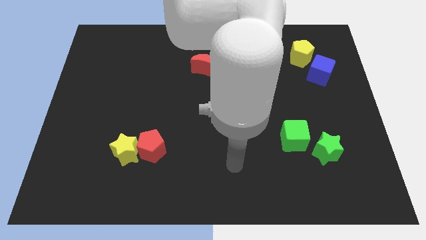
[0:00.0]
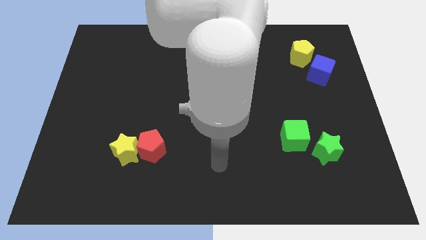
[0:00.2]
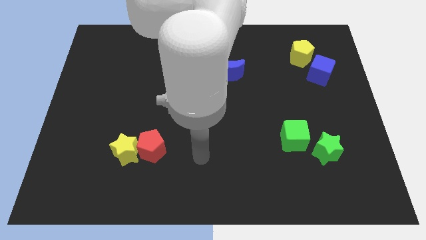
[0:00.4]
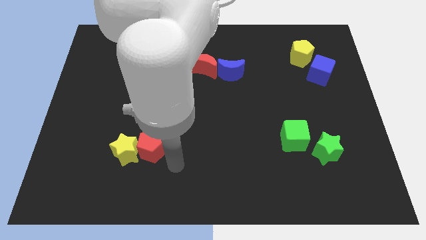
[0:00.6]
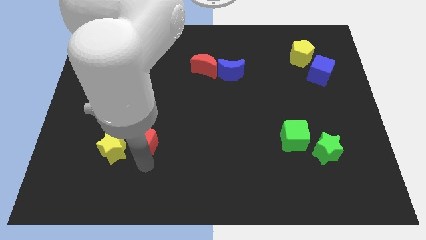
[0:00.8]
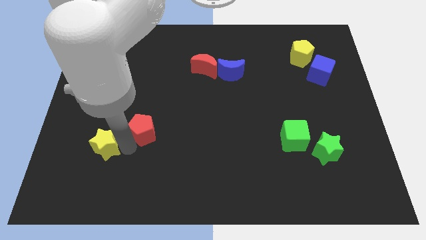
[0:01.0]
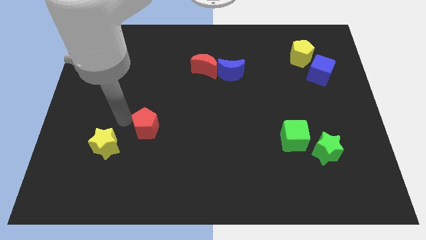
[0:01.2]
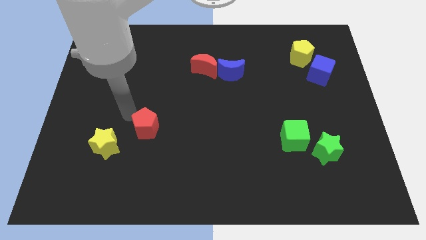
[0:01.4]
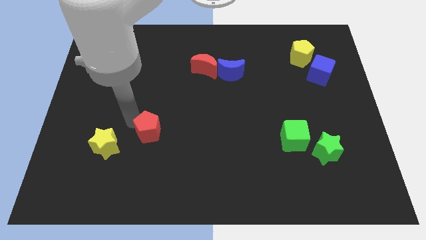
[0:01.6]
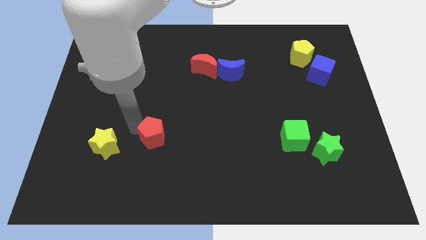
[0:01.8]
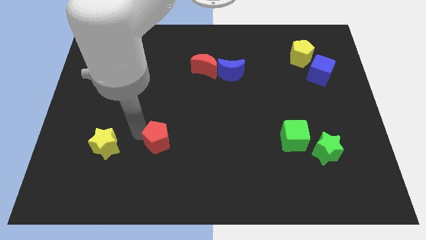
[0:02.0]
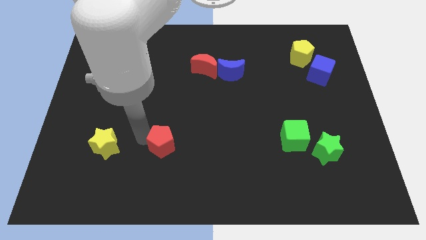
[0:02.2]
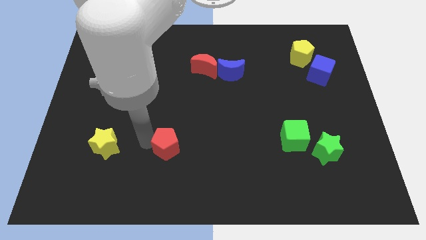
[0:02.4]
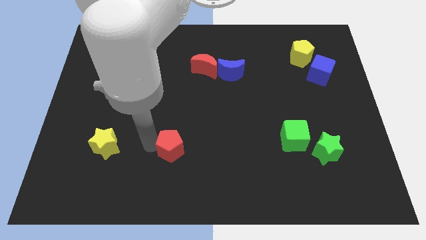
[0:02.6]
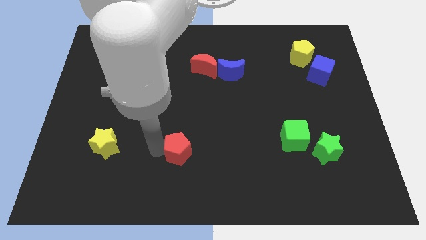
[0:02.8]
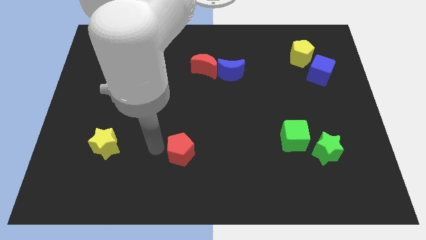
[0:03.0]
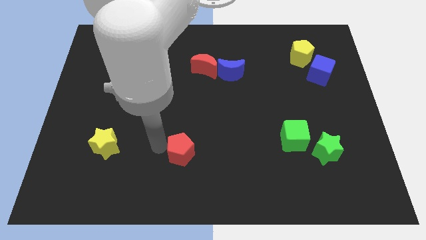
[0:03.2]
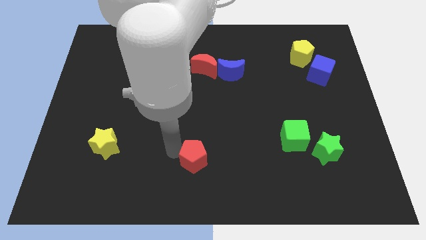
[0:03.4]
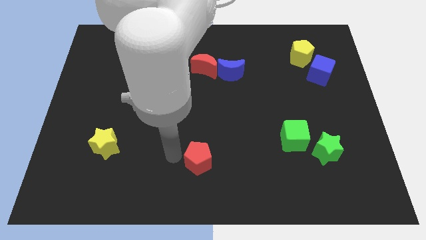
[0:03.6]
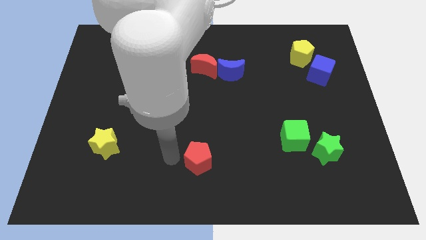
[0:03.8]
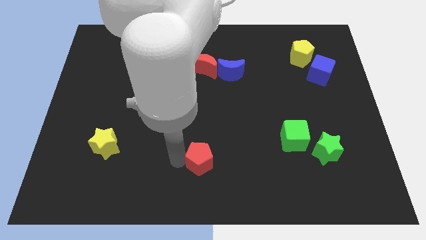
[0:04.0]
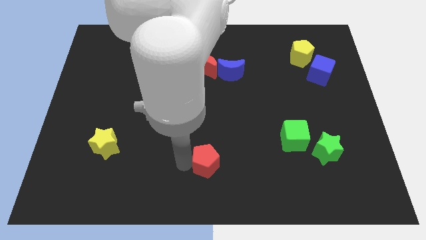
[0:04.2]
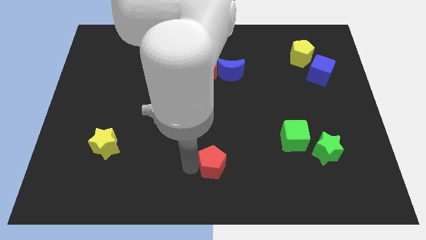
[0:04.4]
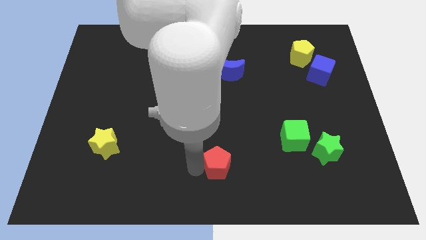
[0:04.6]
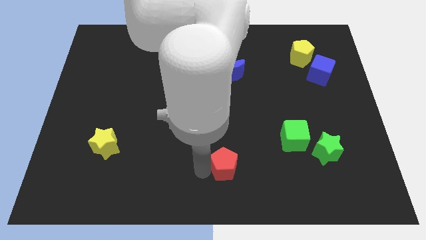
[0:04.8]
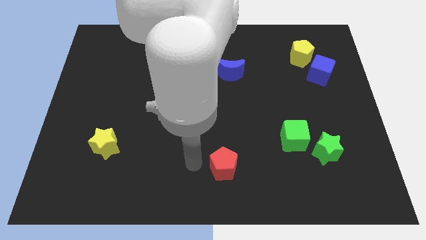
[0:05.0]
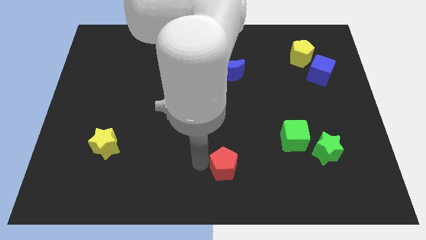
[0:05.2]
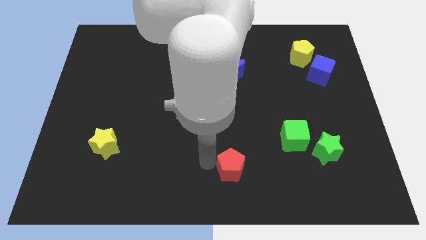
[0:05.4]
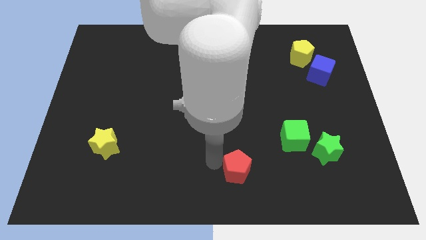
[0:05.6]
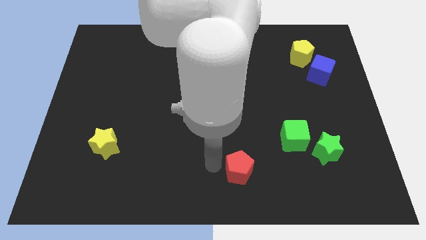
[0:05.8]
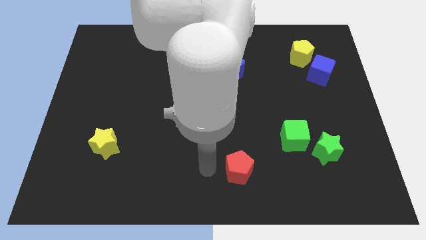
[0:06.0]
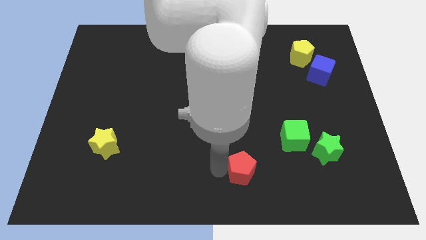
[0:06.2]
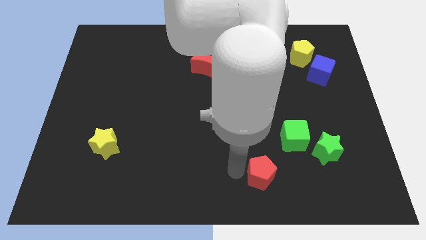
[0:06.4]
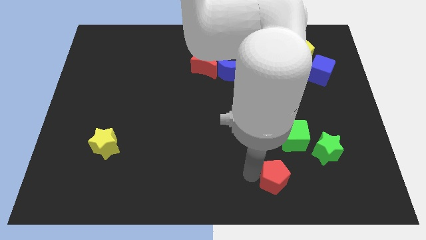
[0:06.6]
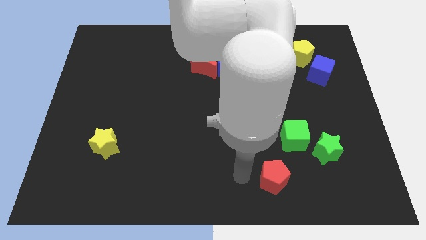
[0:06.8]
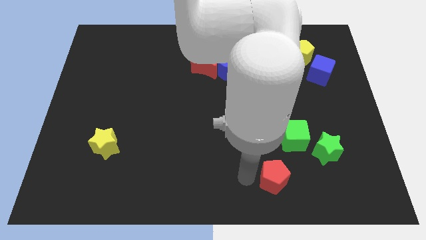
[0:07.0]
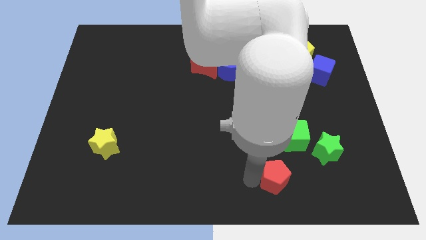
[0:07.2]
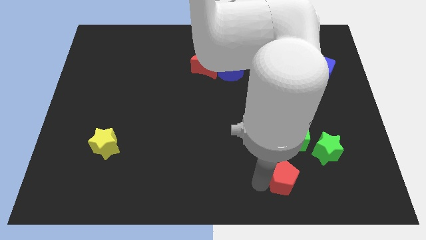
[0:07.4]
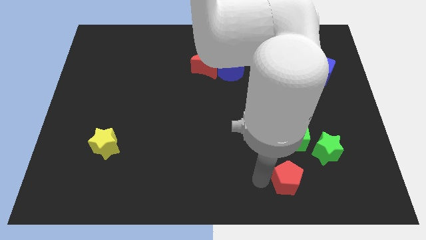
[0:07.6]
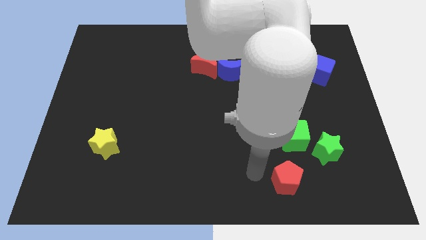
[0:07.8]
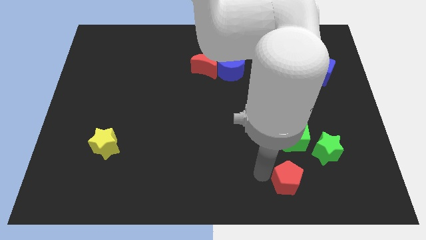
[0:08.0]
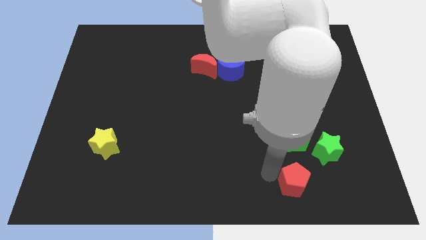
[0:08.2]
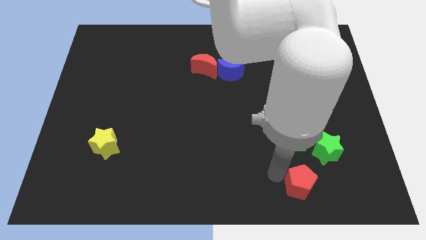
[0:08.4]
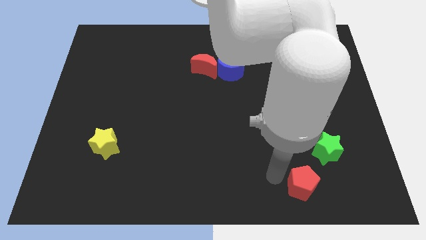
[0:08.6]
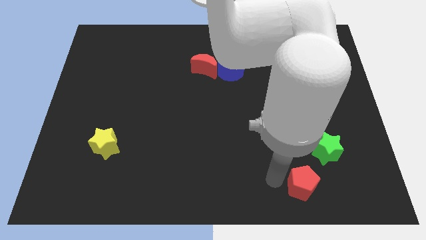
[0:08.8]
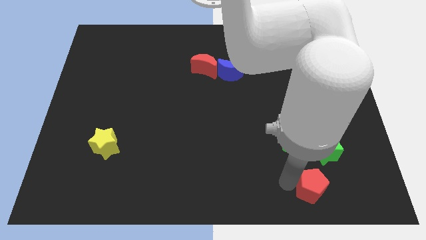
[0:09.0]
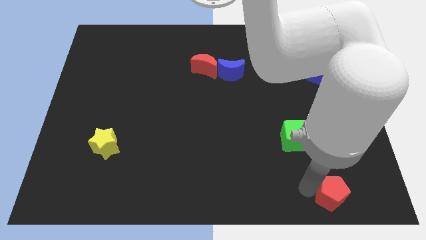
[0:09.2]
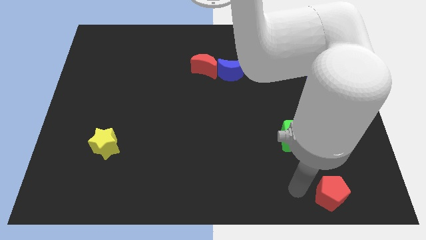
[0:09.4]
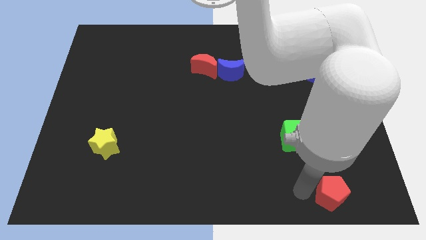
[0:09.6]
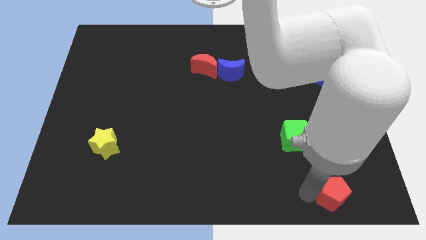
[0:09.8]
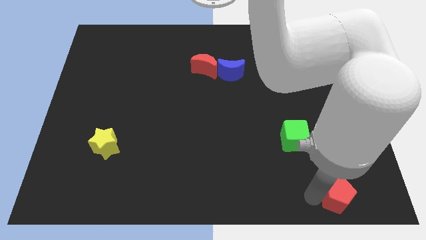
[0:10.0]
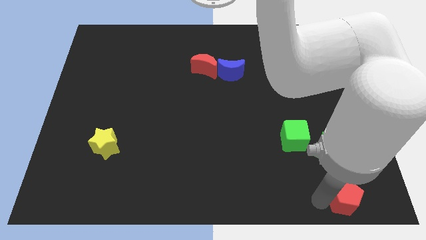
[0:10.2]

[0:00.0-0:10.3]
push the red pentagon to the bottom right

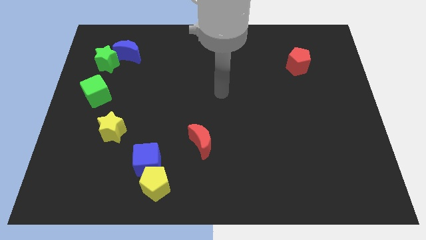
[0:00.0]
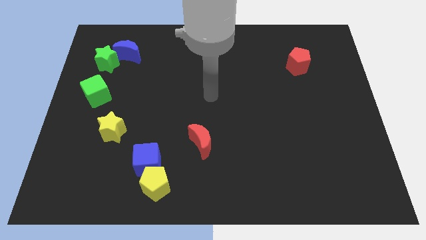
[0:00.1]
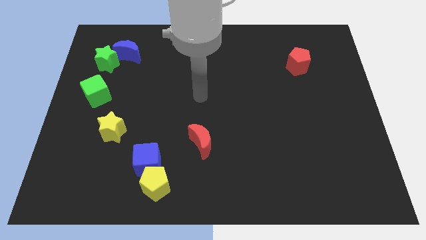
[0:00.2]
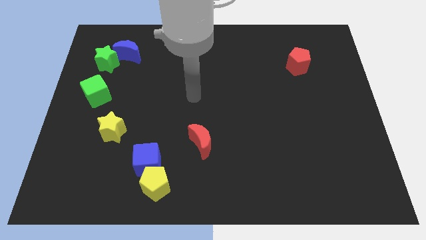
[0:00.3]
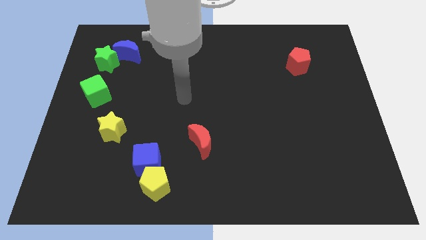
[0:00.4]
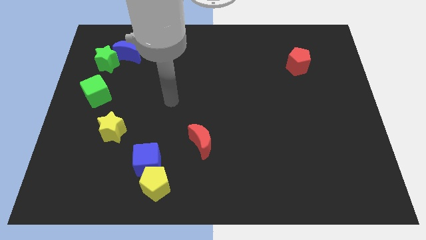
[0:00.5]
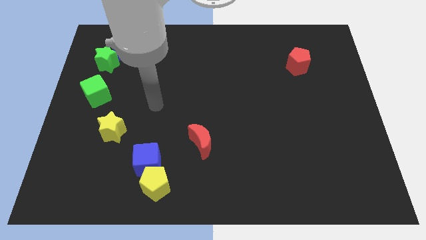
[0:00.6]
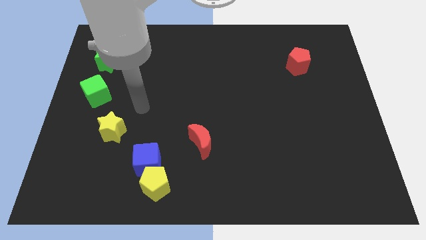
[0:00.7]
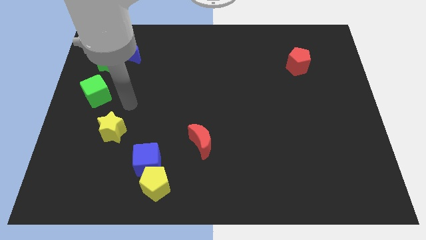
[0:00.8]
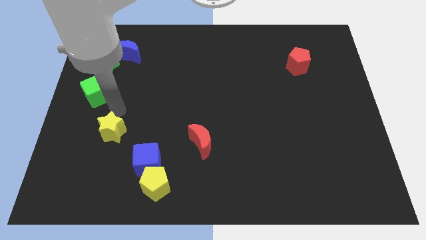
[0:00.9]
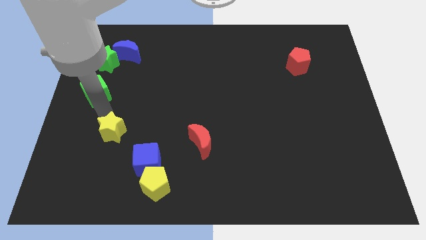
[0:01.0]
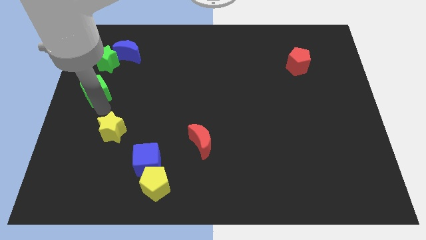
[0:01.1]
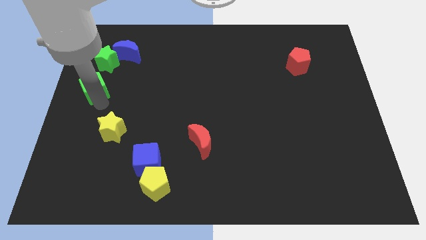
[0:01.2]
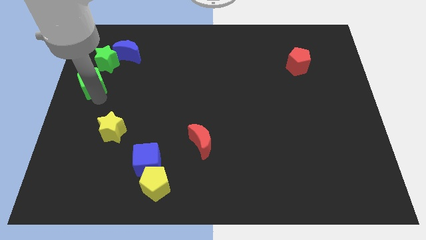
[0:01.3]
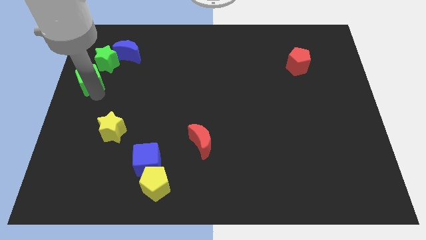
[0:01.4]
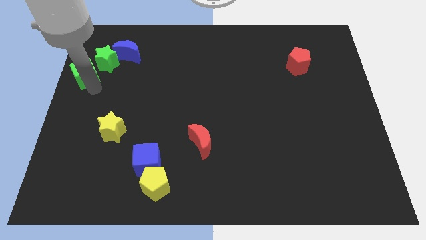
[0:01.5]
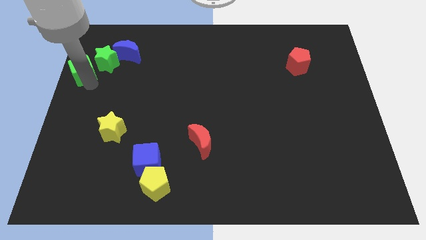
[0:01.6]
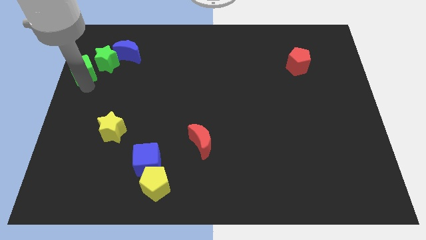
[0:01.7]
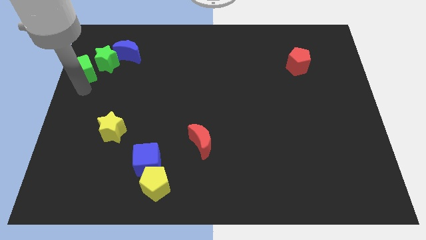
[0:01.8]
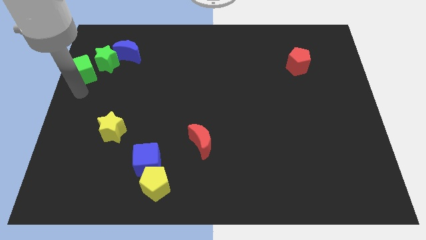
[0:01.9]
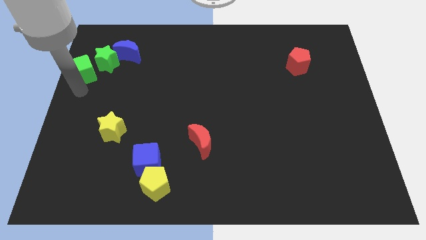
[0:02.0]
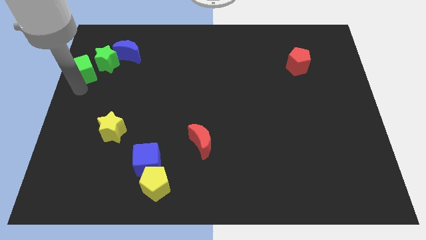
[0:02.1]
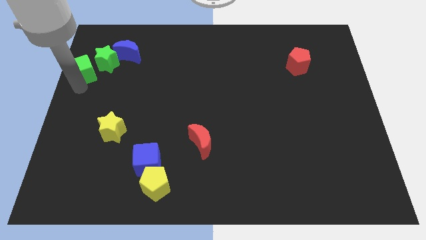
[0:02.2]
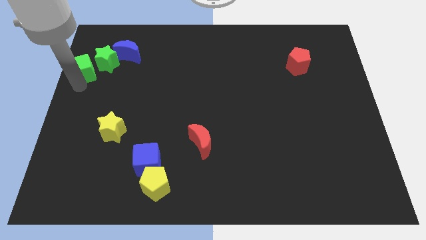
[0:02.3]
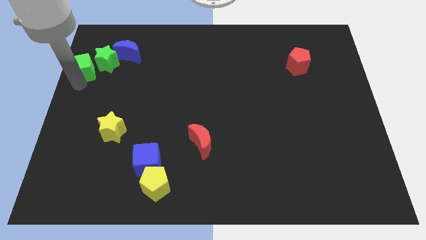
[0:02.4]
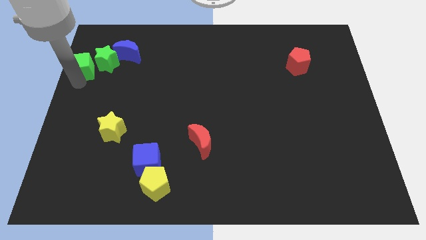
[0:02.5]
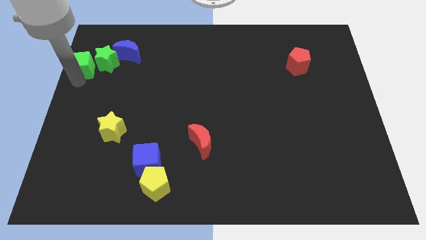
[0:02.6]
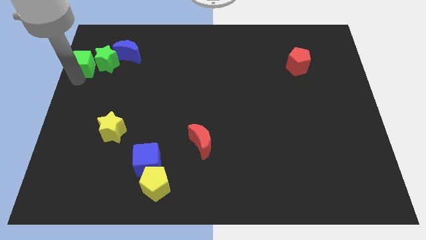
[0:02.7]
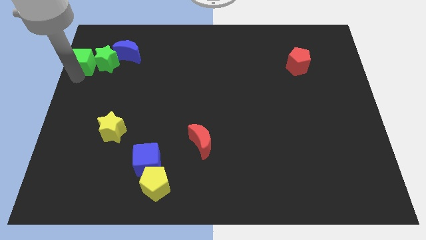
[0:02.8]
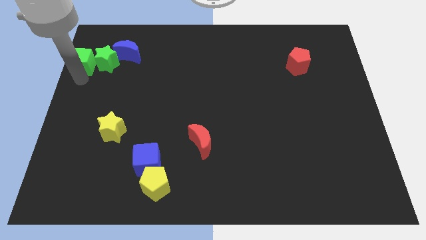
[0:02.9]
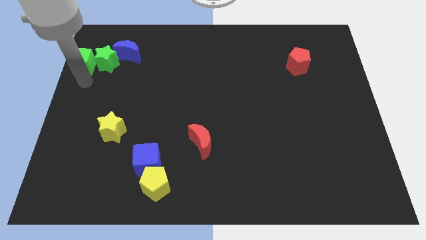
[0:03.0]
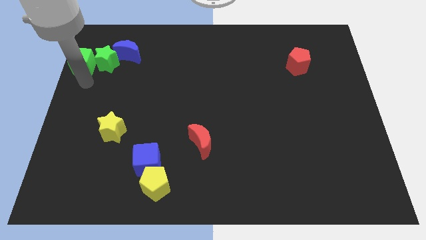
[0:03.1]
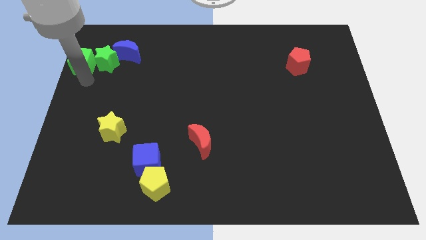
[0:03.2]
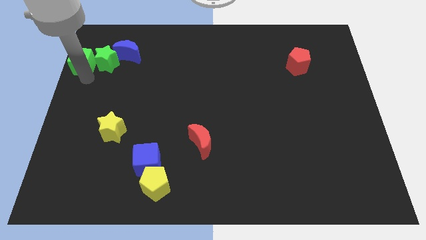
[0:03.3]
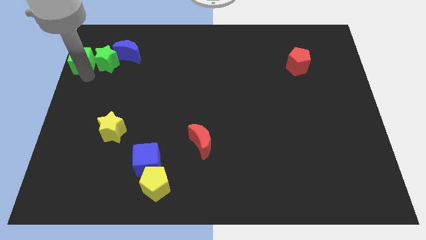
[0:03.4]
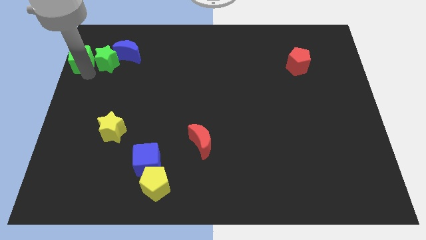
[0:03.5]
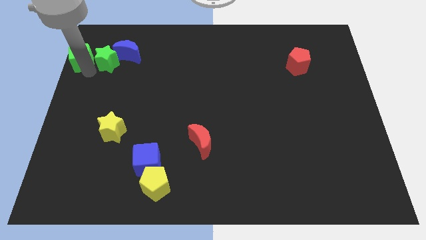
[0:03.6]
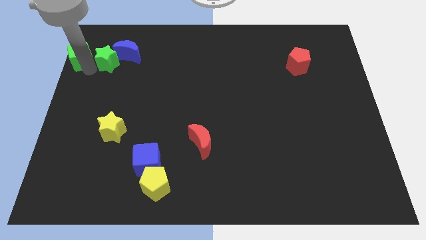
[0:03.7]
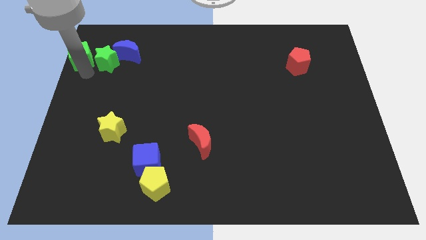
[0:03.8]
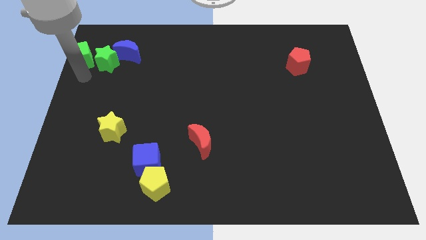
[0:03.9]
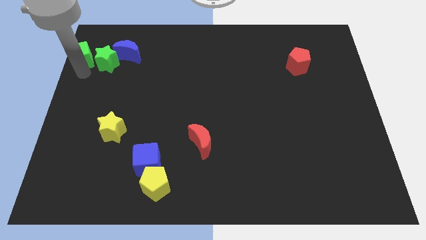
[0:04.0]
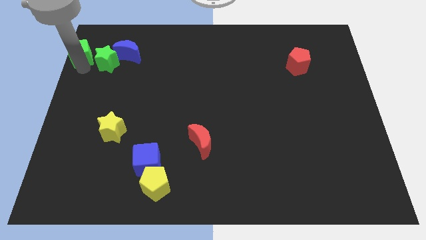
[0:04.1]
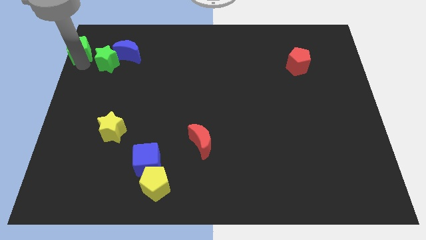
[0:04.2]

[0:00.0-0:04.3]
slide the green cube to the top left
